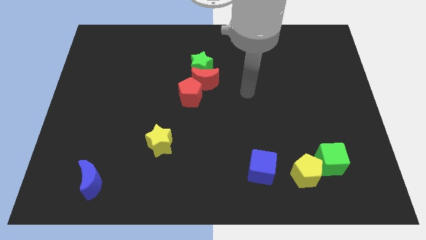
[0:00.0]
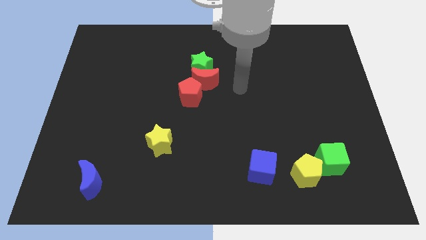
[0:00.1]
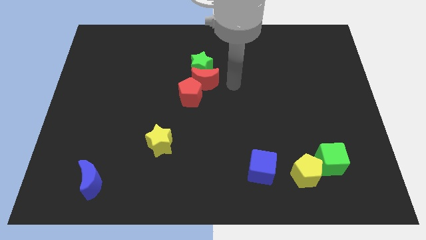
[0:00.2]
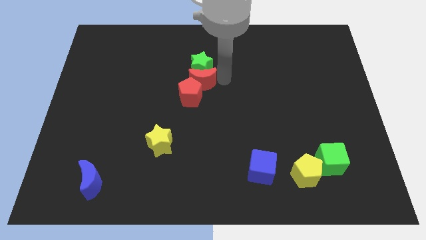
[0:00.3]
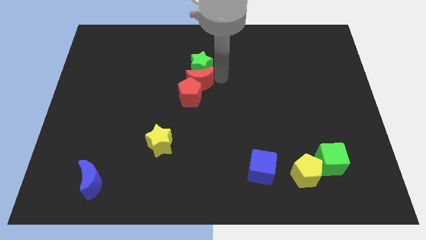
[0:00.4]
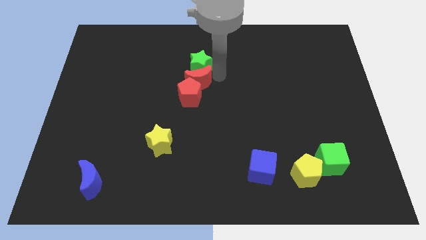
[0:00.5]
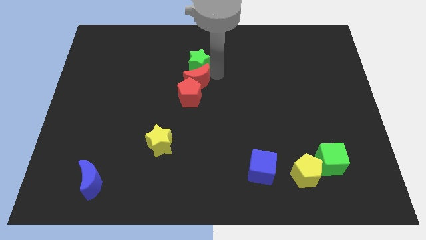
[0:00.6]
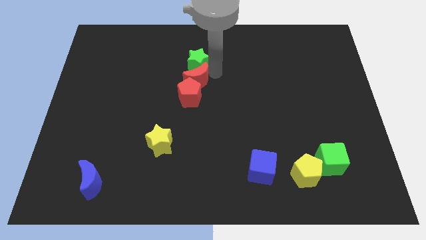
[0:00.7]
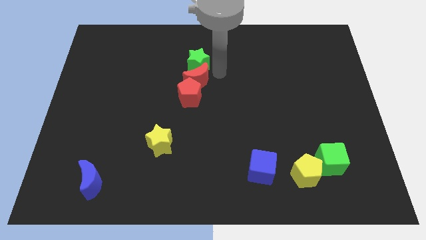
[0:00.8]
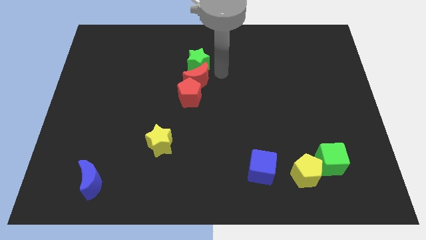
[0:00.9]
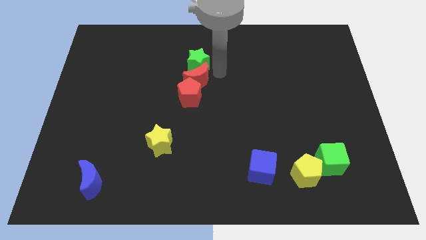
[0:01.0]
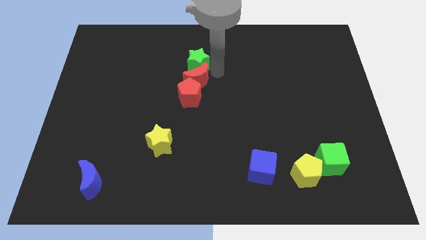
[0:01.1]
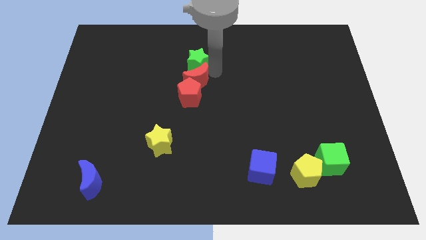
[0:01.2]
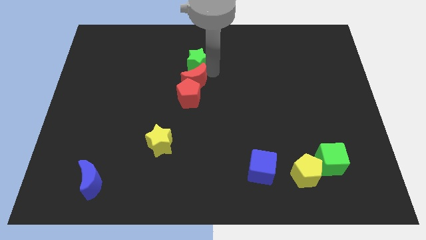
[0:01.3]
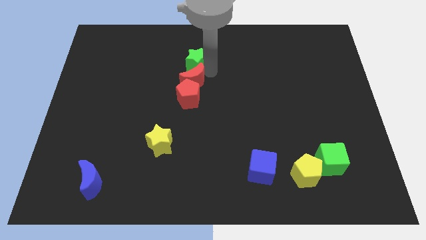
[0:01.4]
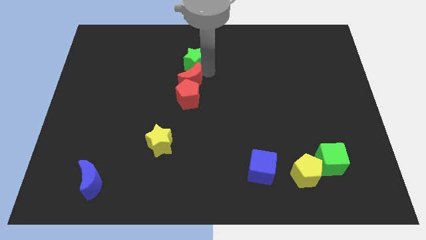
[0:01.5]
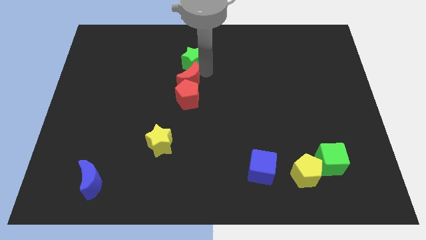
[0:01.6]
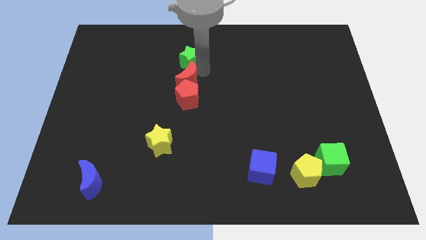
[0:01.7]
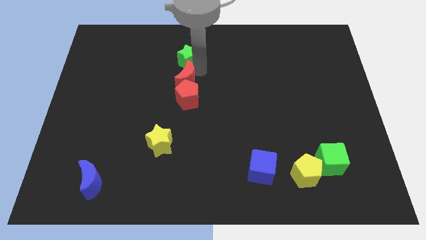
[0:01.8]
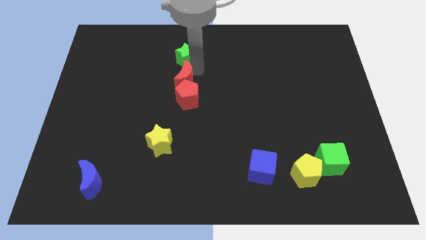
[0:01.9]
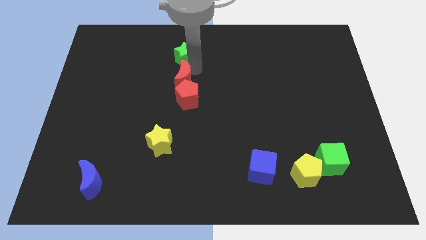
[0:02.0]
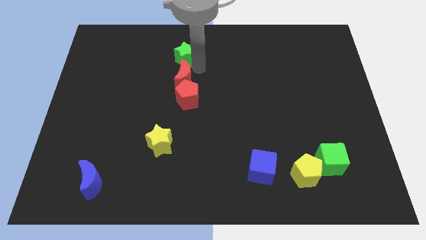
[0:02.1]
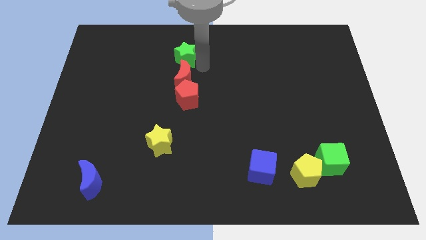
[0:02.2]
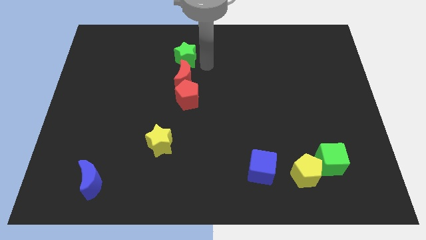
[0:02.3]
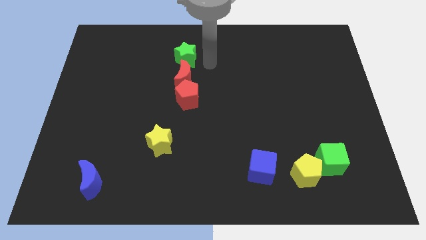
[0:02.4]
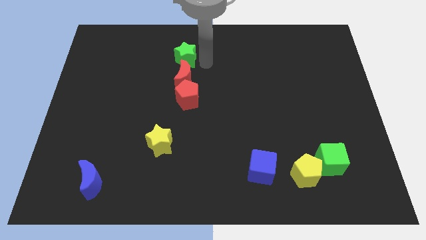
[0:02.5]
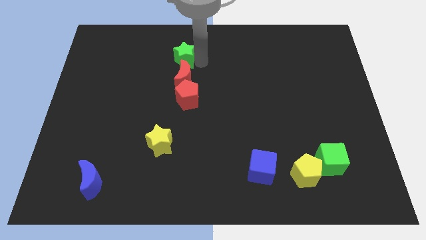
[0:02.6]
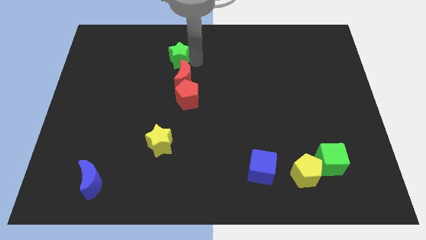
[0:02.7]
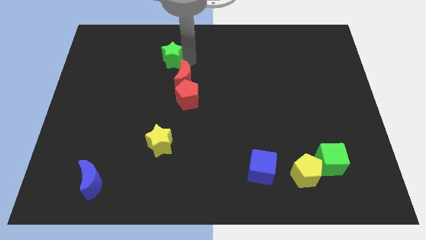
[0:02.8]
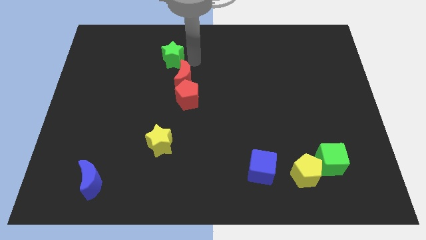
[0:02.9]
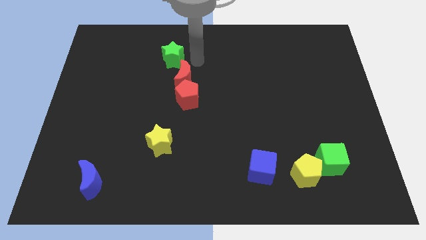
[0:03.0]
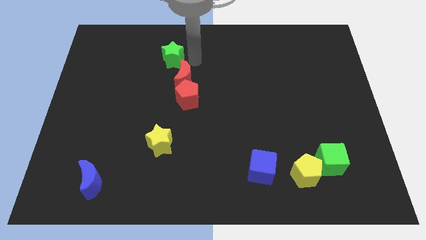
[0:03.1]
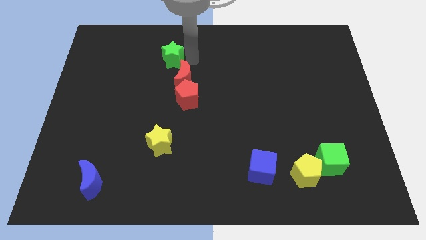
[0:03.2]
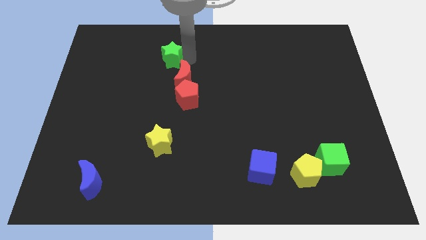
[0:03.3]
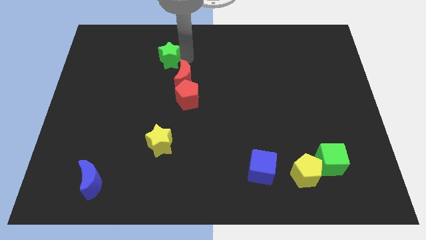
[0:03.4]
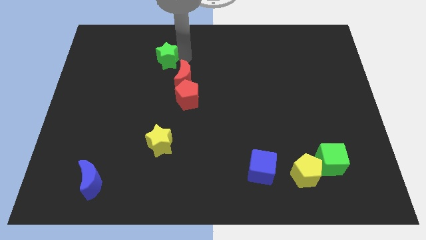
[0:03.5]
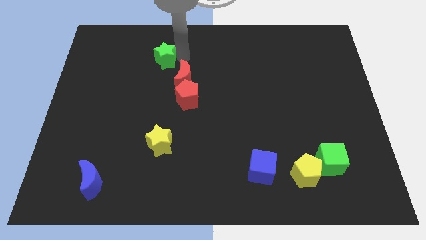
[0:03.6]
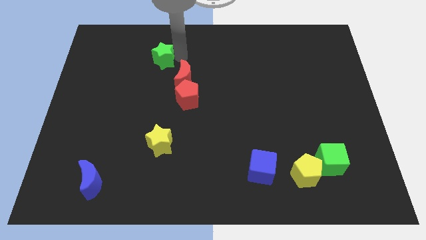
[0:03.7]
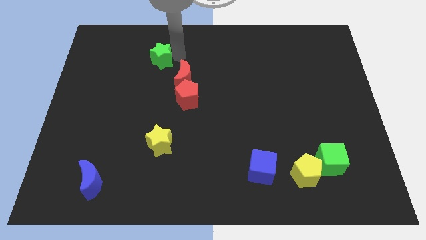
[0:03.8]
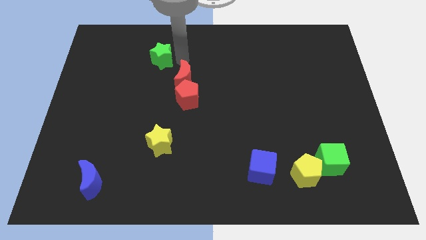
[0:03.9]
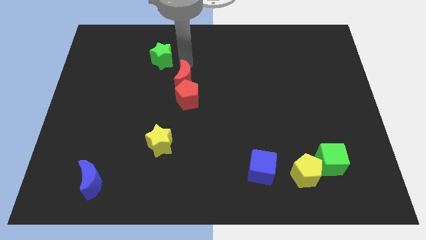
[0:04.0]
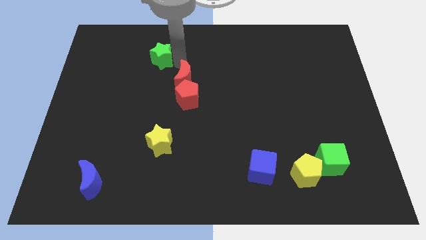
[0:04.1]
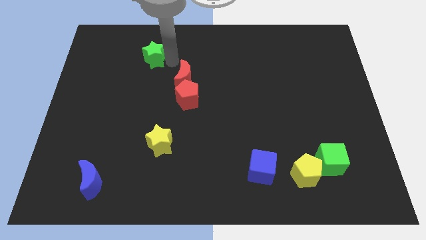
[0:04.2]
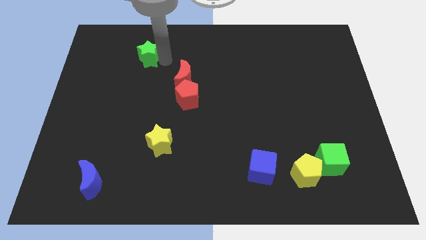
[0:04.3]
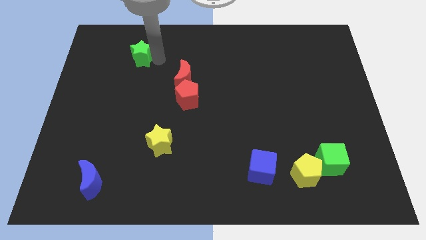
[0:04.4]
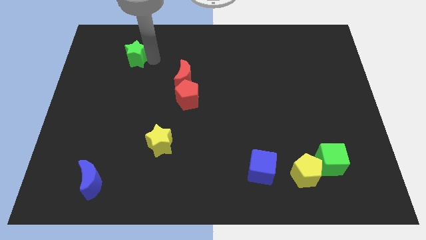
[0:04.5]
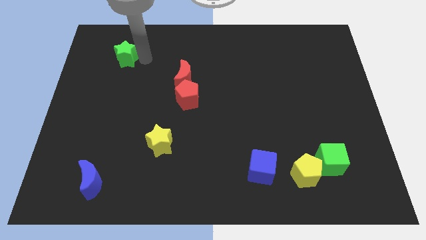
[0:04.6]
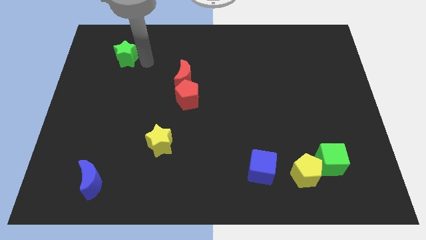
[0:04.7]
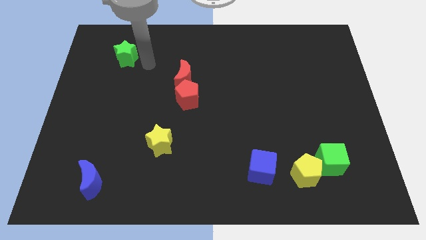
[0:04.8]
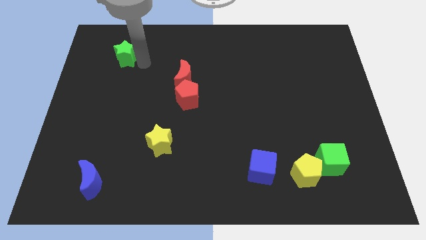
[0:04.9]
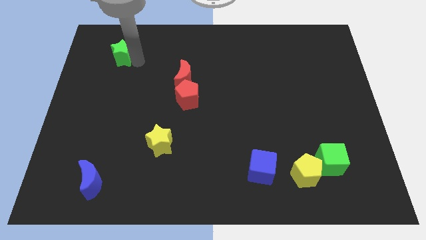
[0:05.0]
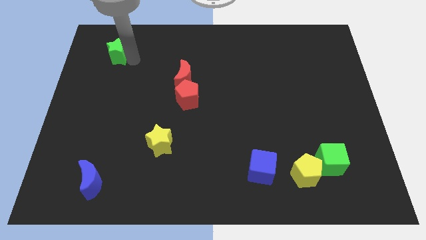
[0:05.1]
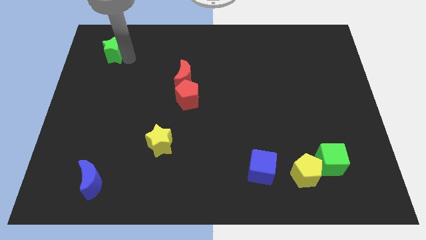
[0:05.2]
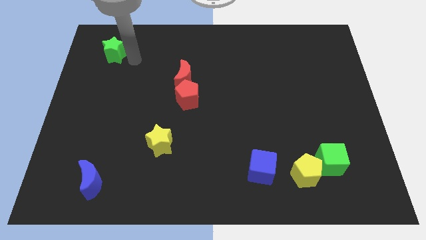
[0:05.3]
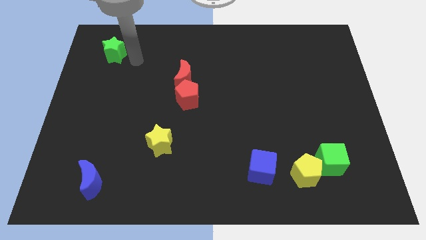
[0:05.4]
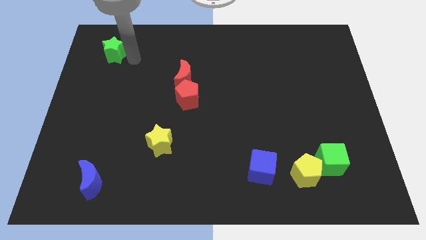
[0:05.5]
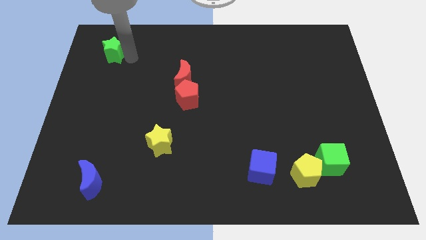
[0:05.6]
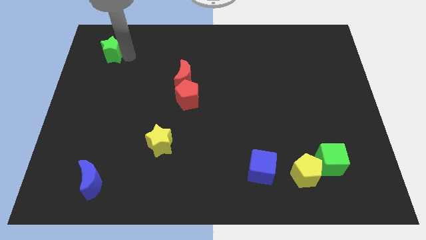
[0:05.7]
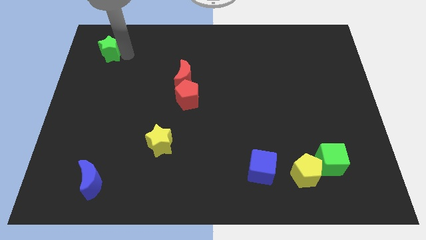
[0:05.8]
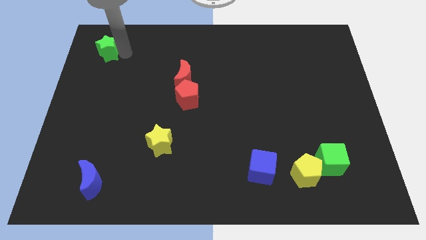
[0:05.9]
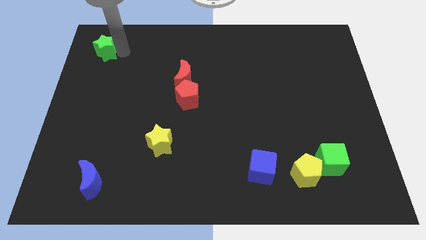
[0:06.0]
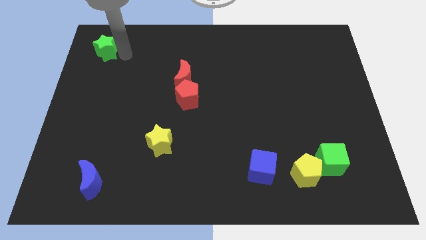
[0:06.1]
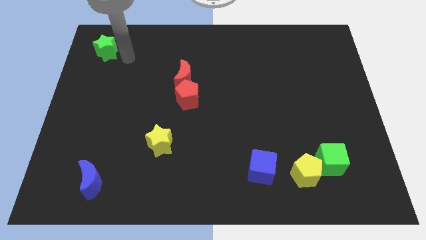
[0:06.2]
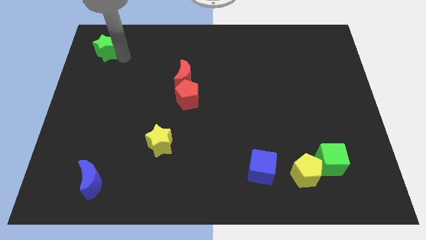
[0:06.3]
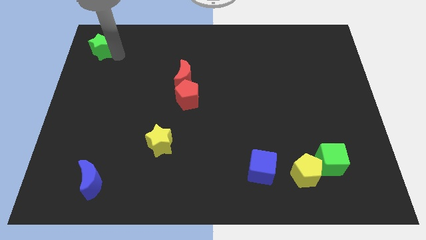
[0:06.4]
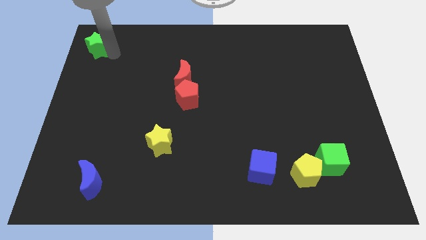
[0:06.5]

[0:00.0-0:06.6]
move the green star to the upper left corner
